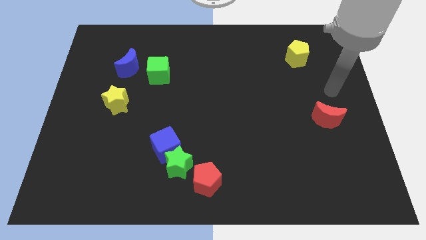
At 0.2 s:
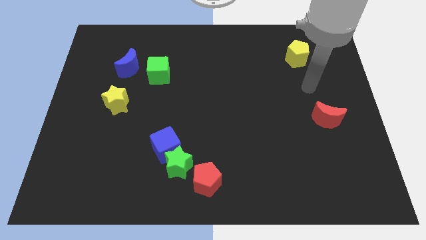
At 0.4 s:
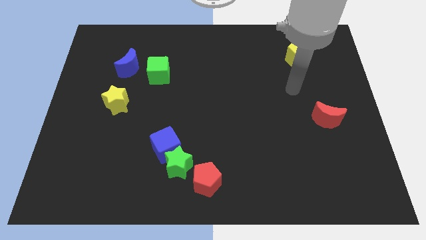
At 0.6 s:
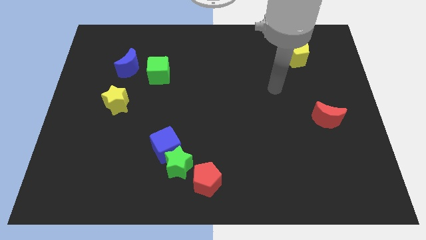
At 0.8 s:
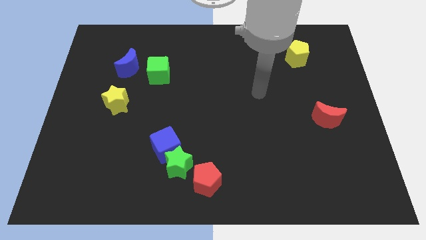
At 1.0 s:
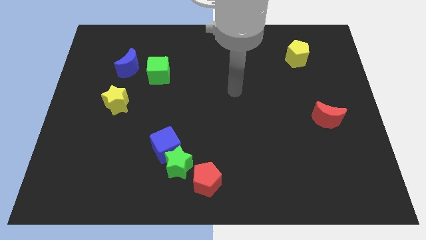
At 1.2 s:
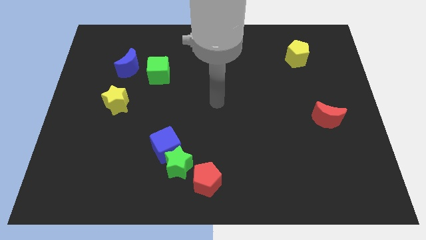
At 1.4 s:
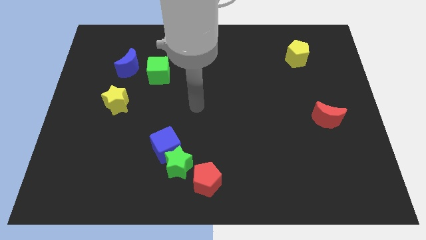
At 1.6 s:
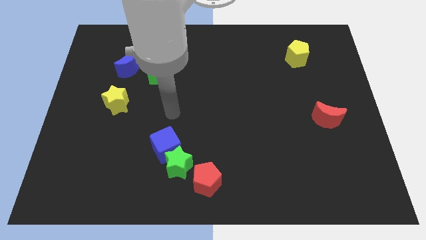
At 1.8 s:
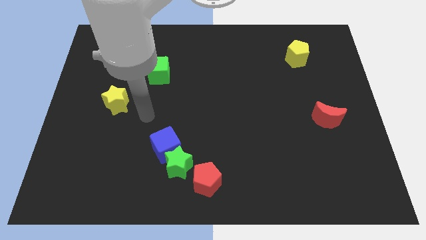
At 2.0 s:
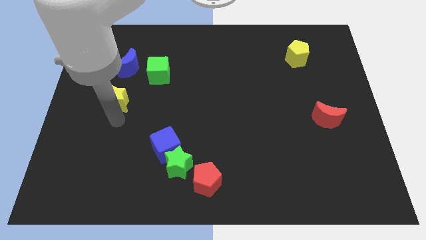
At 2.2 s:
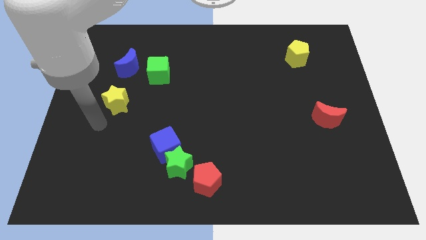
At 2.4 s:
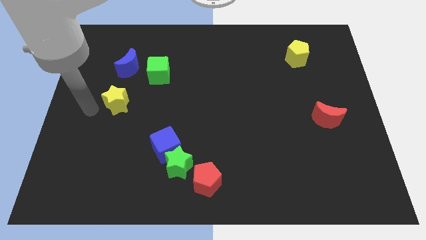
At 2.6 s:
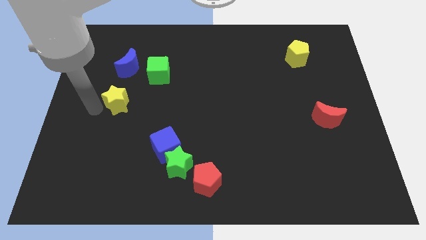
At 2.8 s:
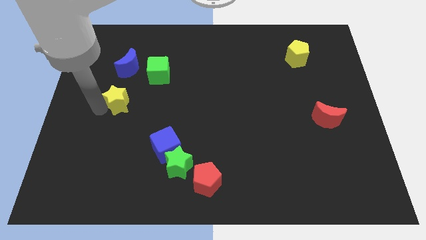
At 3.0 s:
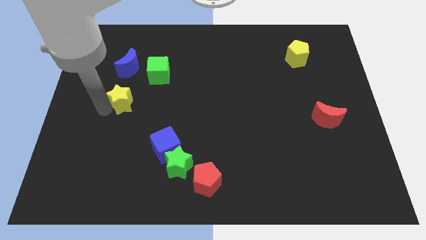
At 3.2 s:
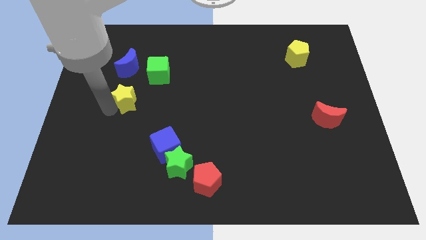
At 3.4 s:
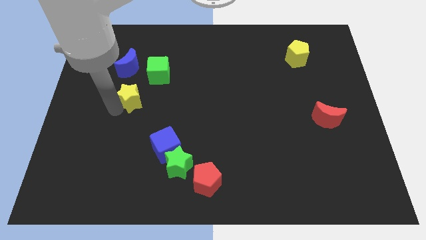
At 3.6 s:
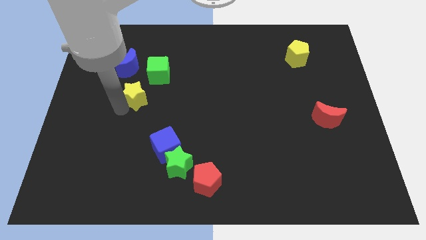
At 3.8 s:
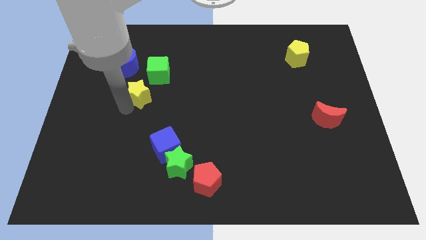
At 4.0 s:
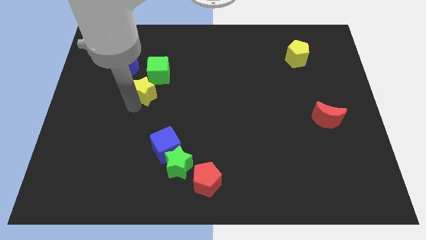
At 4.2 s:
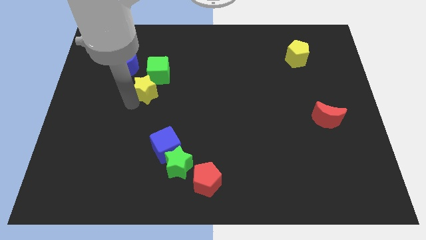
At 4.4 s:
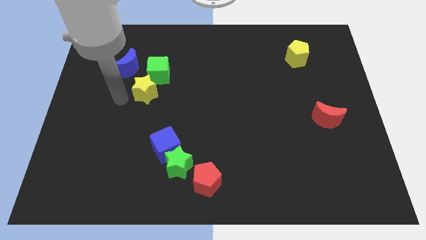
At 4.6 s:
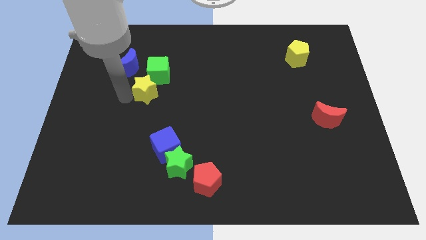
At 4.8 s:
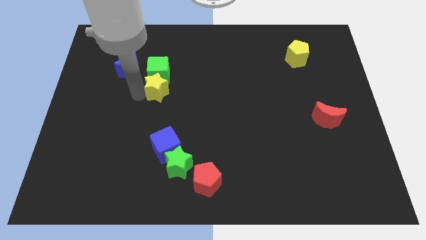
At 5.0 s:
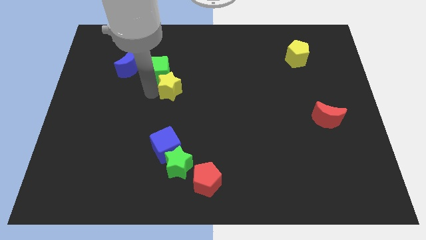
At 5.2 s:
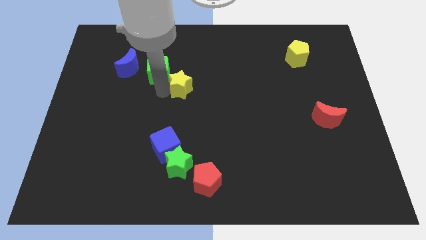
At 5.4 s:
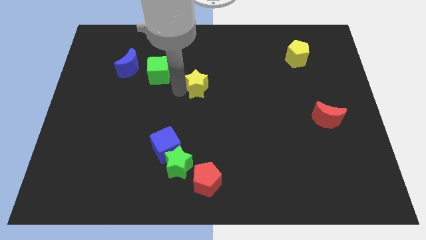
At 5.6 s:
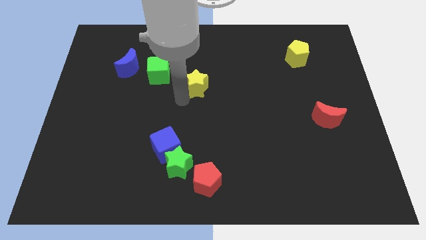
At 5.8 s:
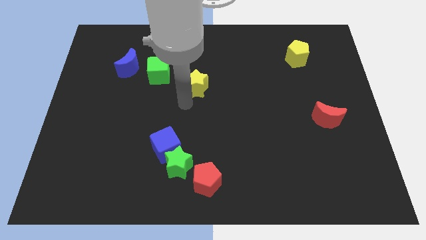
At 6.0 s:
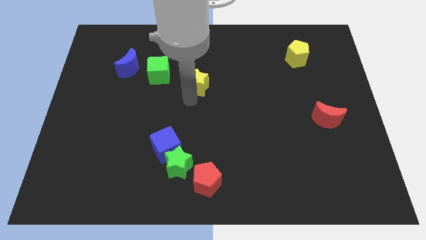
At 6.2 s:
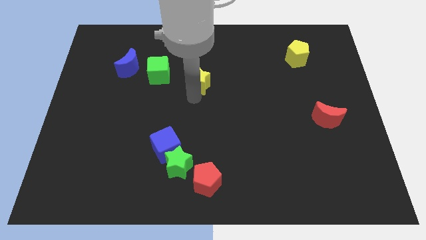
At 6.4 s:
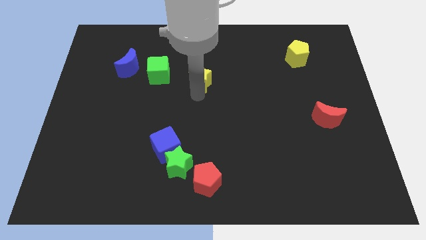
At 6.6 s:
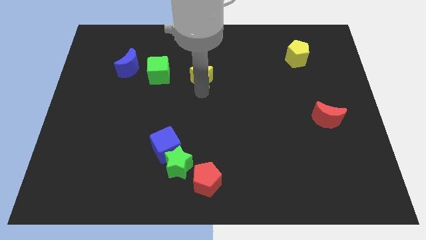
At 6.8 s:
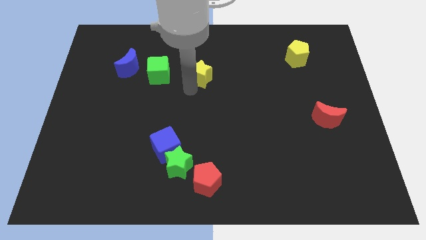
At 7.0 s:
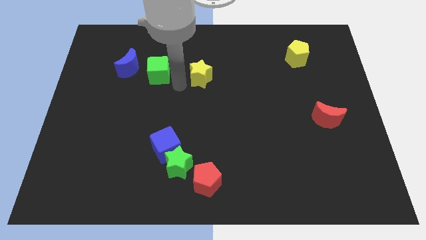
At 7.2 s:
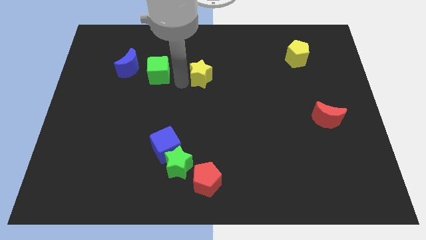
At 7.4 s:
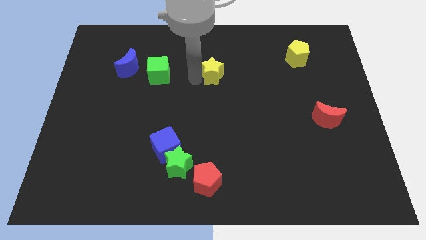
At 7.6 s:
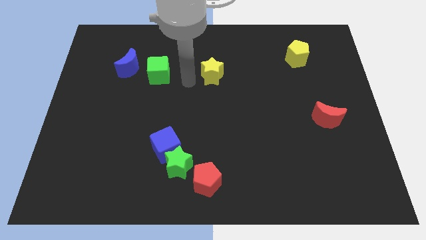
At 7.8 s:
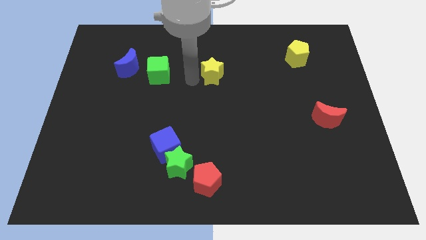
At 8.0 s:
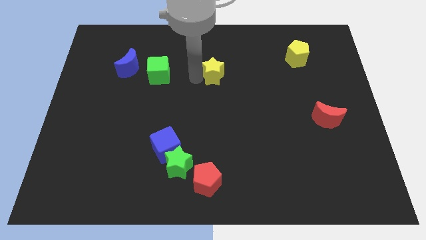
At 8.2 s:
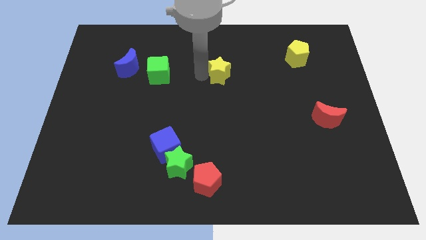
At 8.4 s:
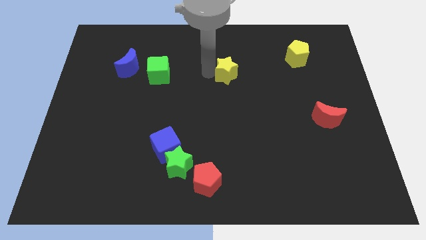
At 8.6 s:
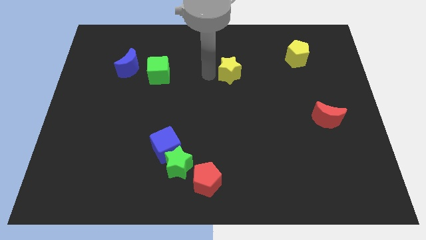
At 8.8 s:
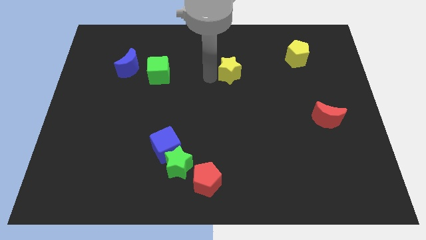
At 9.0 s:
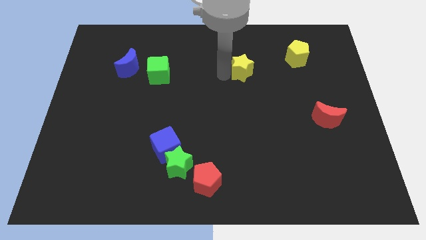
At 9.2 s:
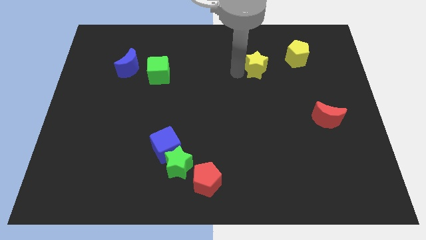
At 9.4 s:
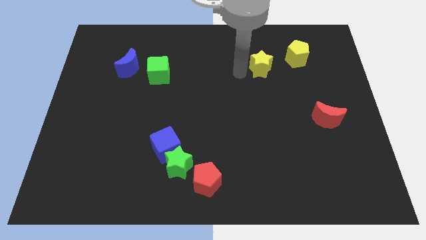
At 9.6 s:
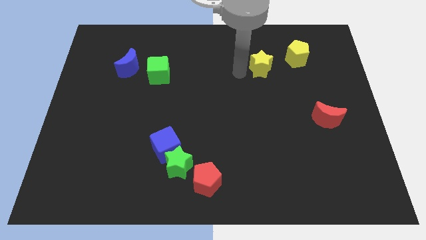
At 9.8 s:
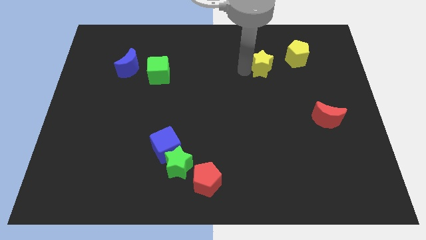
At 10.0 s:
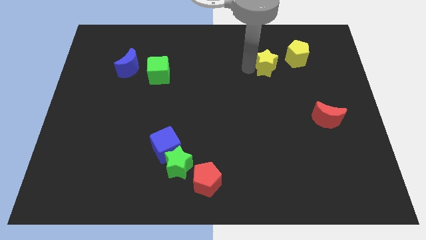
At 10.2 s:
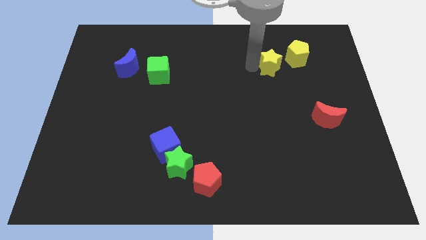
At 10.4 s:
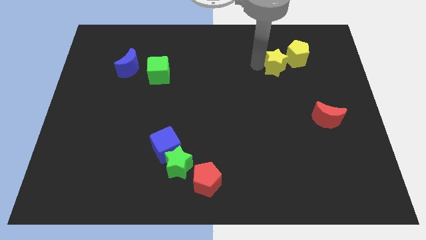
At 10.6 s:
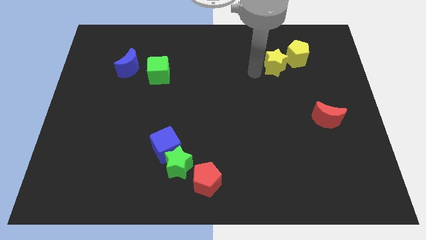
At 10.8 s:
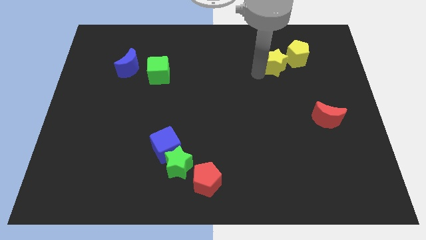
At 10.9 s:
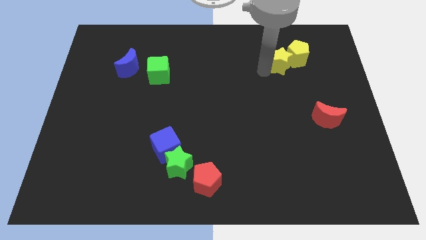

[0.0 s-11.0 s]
move the yellow star to the yellow pentagon

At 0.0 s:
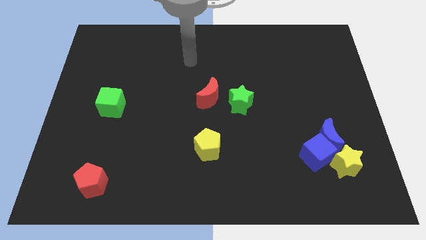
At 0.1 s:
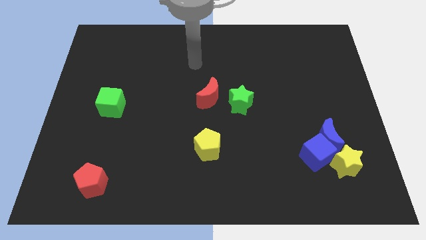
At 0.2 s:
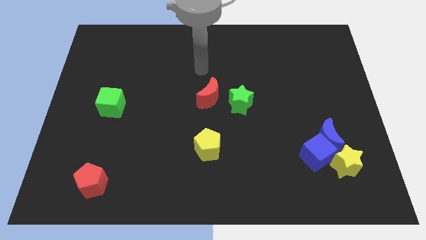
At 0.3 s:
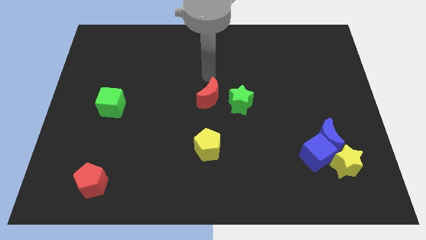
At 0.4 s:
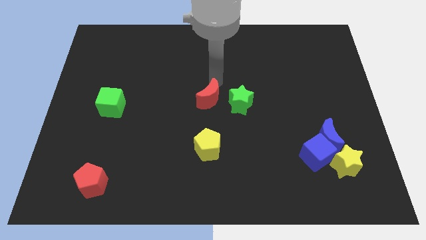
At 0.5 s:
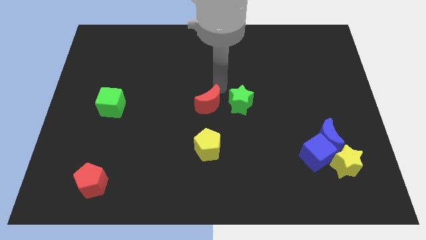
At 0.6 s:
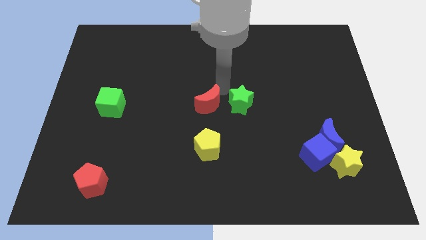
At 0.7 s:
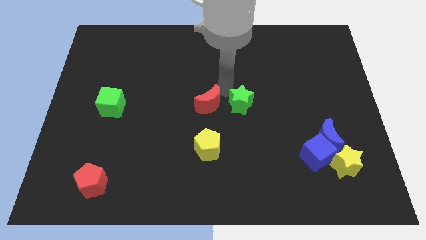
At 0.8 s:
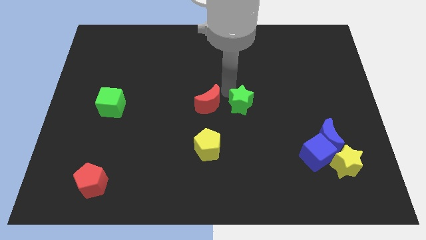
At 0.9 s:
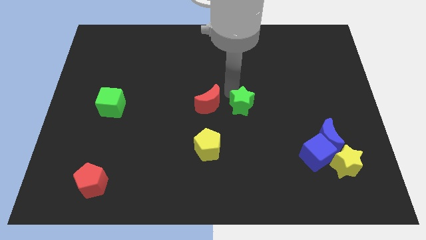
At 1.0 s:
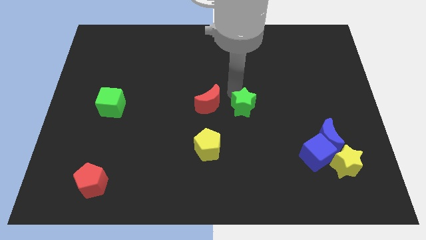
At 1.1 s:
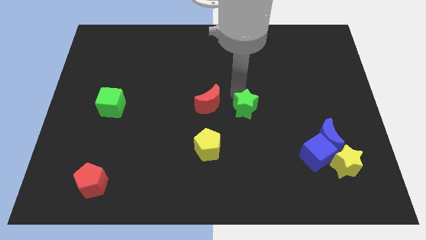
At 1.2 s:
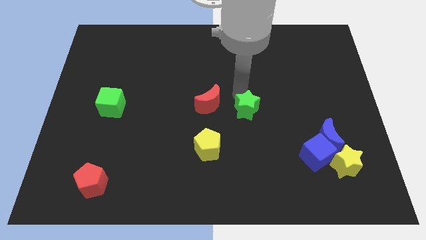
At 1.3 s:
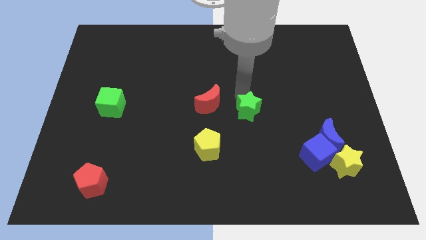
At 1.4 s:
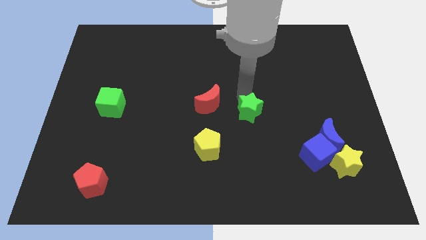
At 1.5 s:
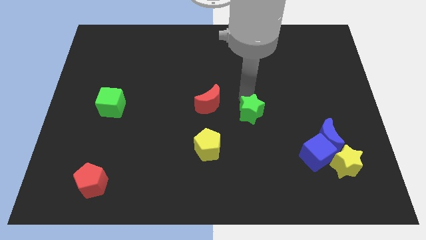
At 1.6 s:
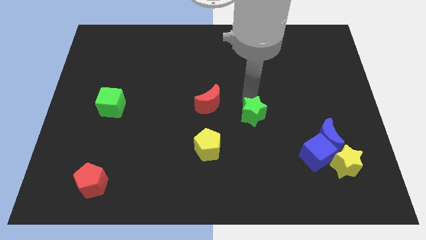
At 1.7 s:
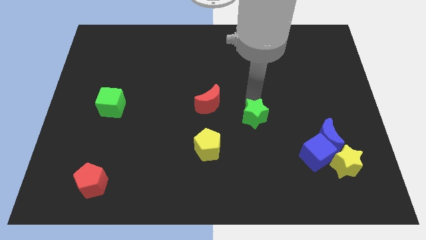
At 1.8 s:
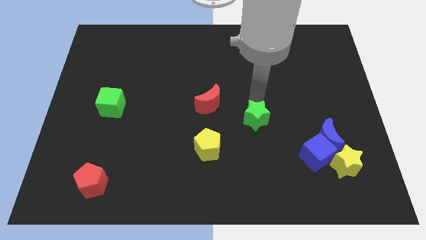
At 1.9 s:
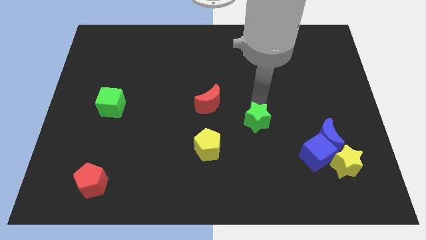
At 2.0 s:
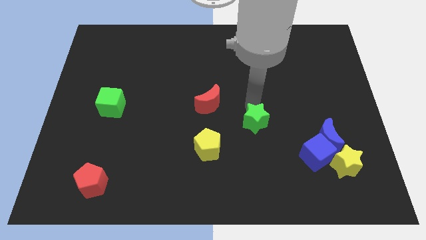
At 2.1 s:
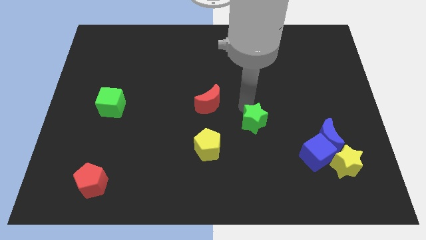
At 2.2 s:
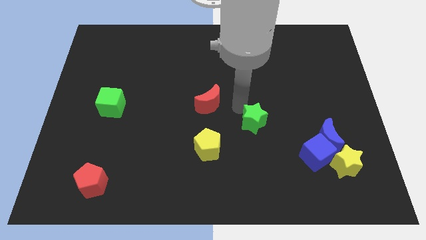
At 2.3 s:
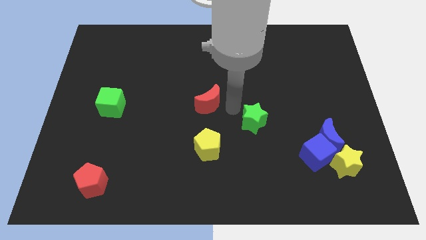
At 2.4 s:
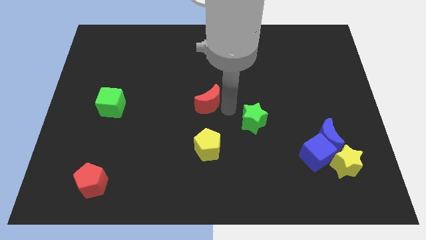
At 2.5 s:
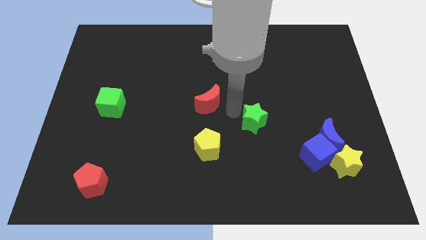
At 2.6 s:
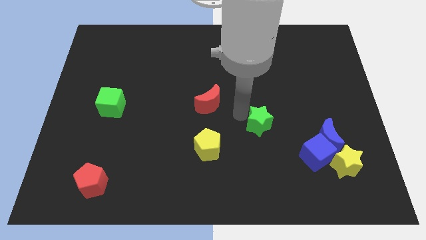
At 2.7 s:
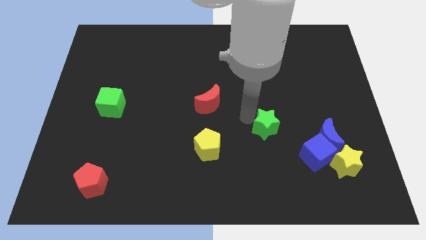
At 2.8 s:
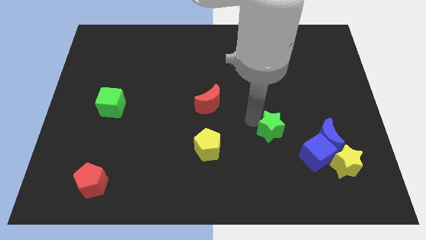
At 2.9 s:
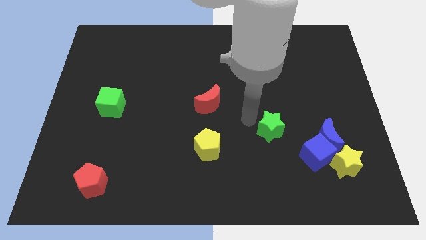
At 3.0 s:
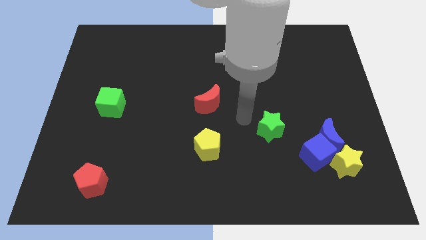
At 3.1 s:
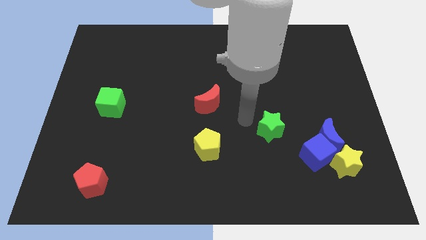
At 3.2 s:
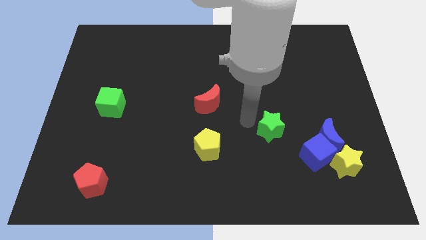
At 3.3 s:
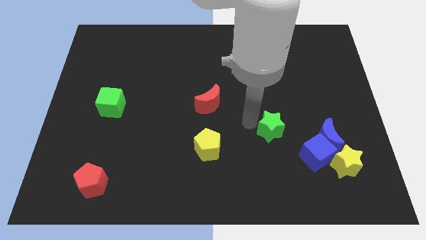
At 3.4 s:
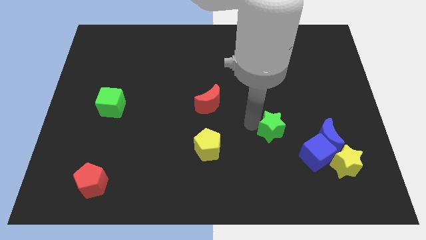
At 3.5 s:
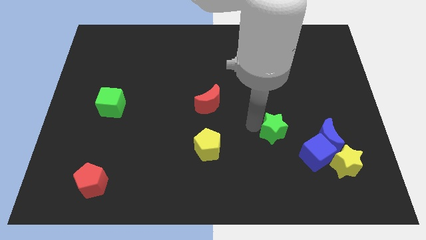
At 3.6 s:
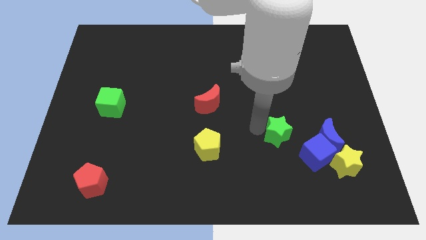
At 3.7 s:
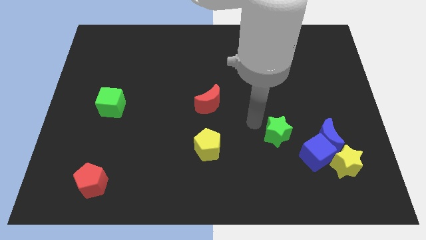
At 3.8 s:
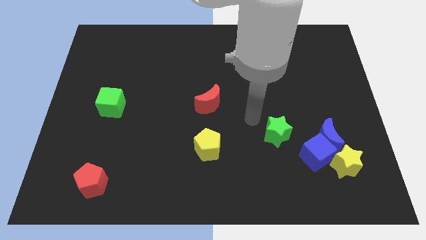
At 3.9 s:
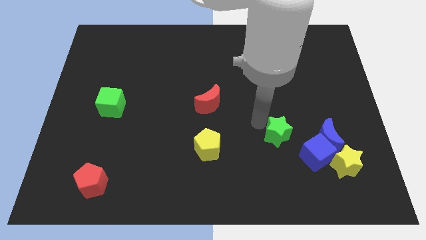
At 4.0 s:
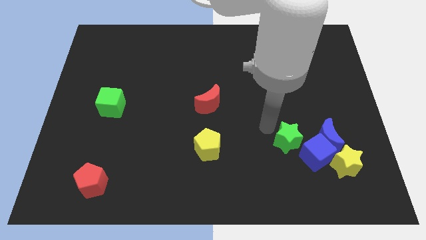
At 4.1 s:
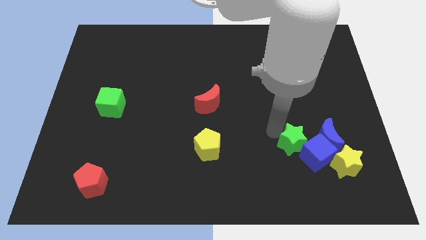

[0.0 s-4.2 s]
move the green star towards the blue cube
